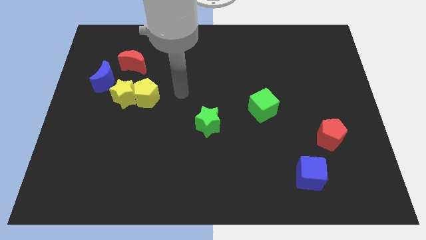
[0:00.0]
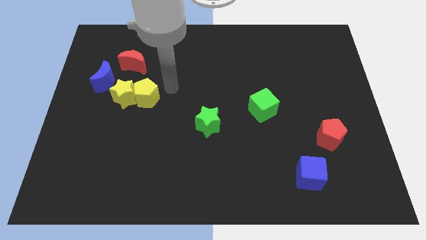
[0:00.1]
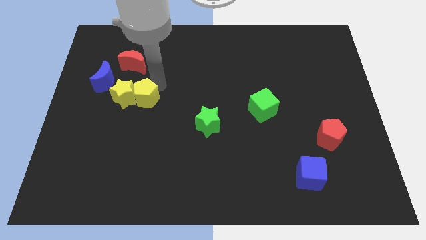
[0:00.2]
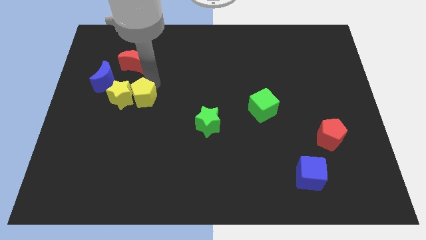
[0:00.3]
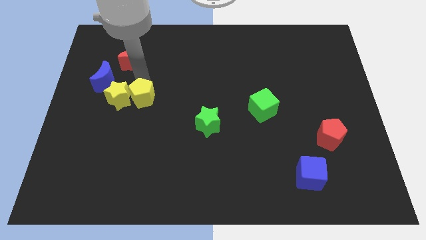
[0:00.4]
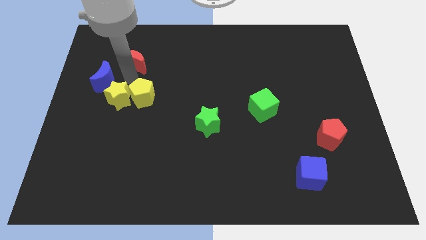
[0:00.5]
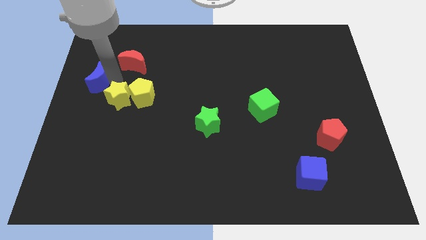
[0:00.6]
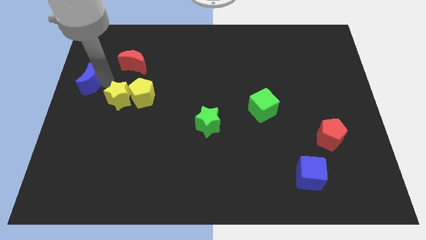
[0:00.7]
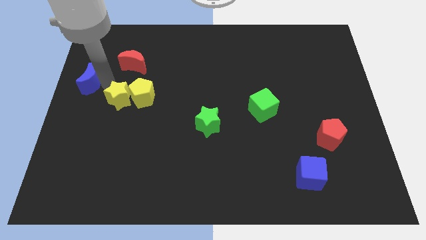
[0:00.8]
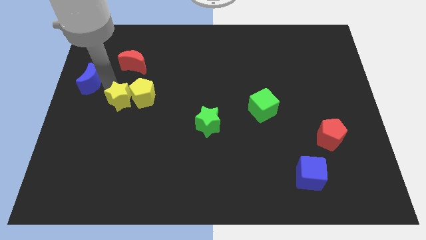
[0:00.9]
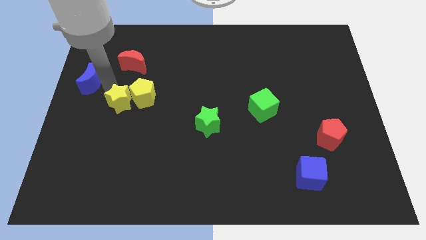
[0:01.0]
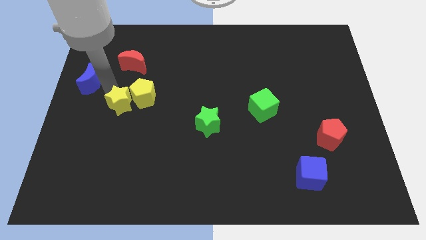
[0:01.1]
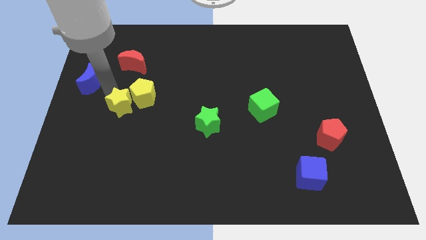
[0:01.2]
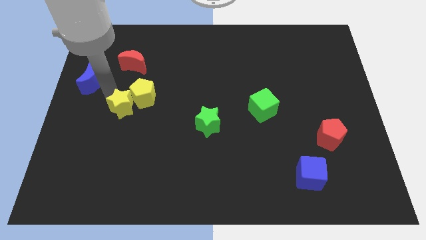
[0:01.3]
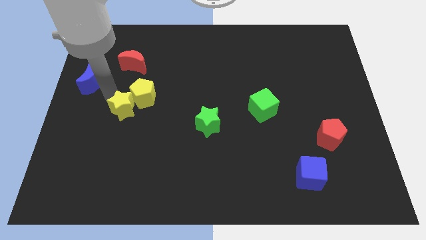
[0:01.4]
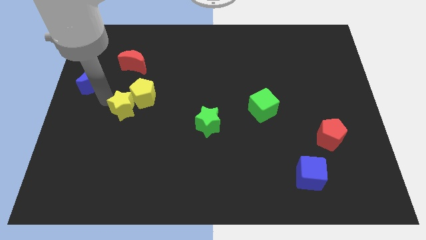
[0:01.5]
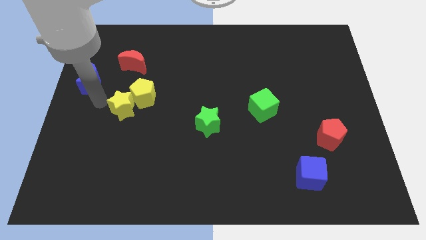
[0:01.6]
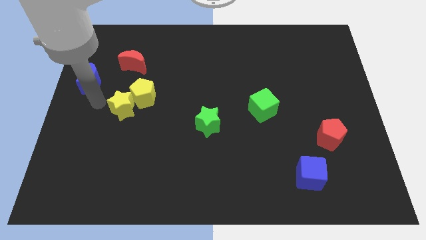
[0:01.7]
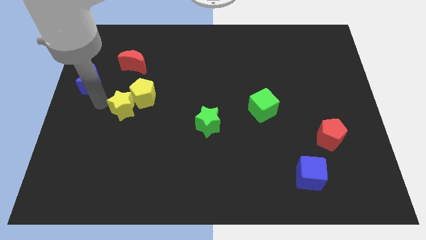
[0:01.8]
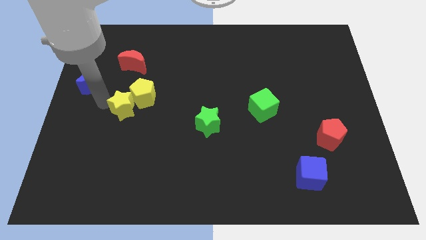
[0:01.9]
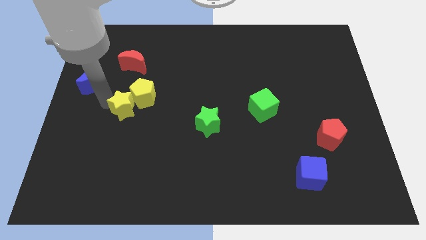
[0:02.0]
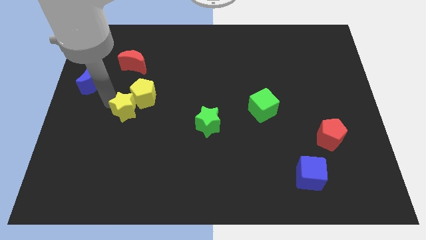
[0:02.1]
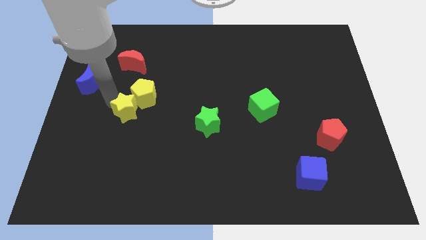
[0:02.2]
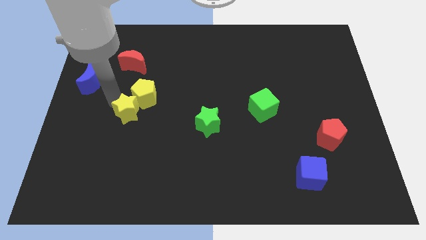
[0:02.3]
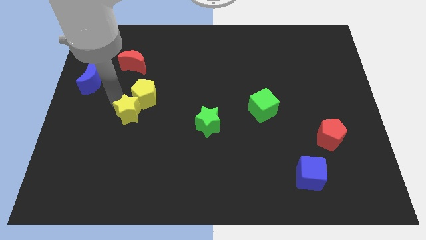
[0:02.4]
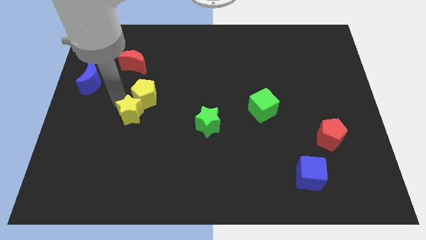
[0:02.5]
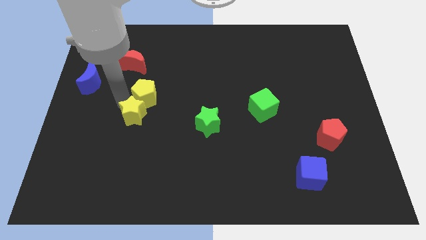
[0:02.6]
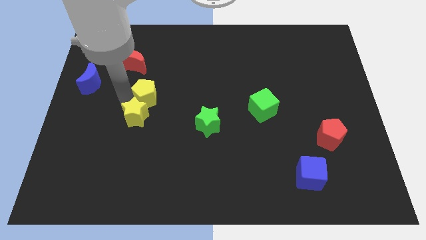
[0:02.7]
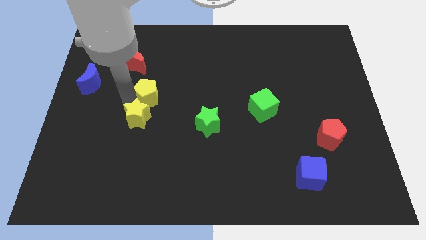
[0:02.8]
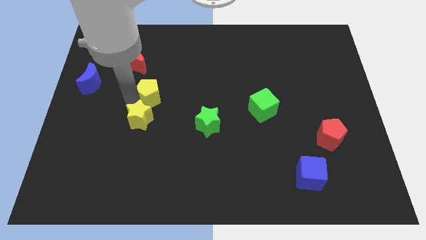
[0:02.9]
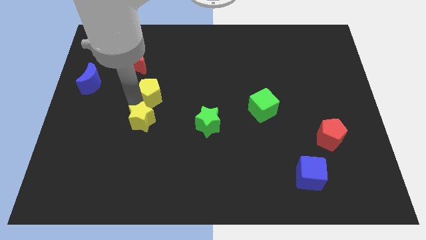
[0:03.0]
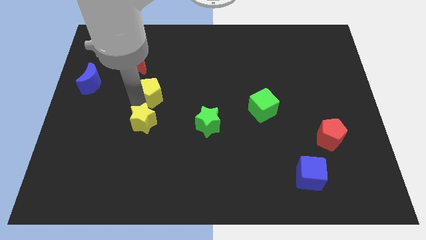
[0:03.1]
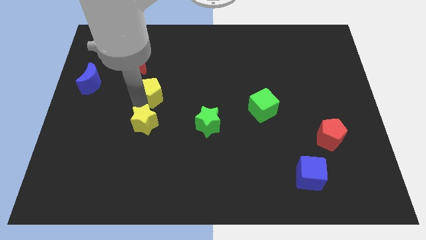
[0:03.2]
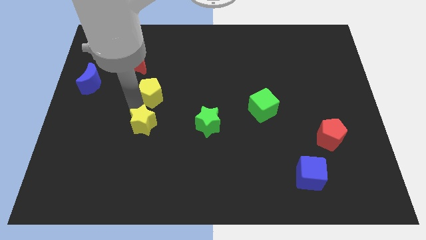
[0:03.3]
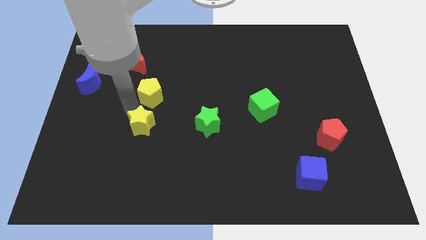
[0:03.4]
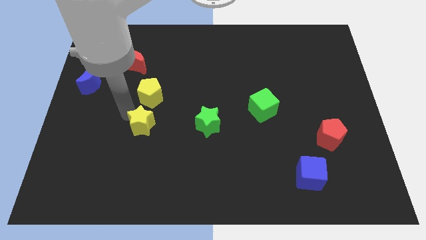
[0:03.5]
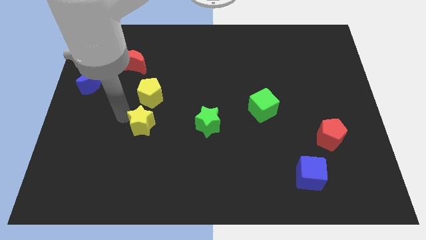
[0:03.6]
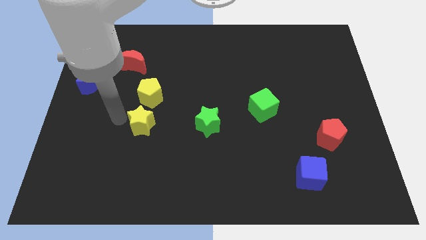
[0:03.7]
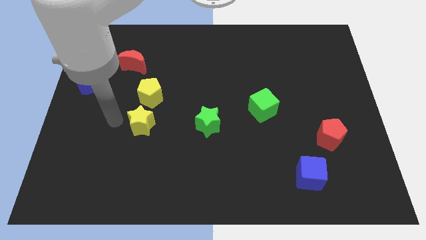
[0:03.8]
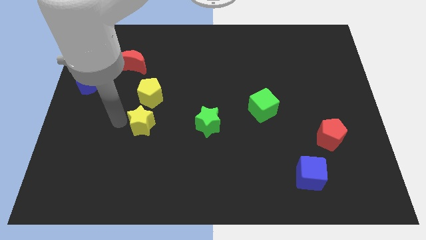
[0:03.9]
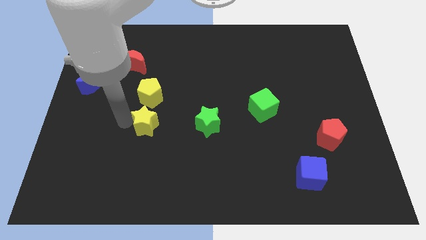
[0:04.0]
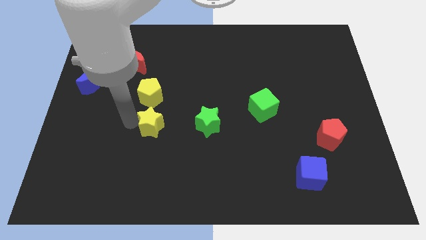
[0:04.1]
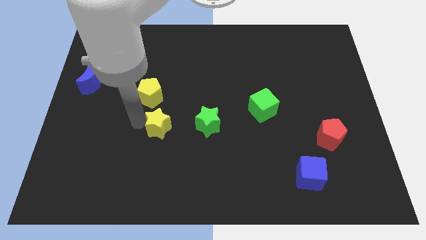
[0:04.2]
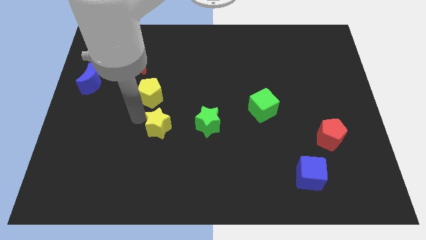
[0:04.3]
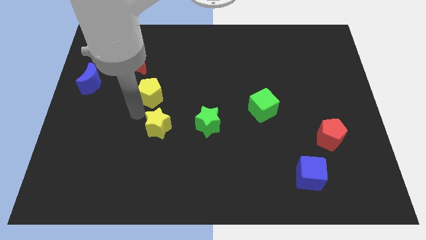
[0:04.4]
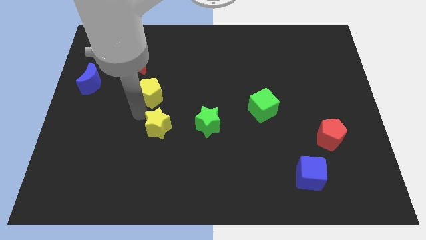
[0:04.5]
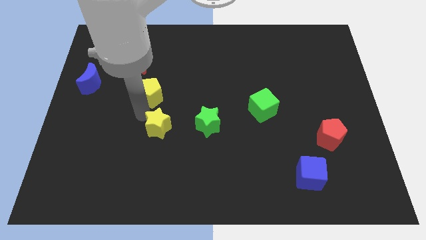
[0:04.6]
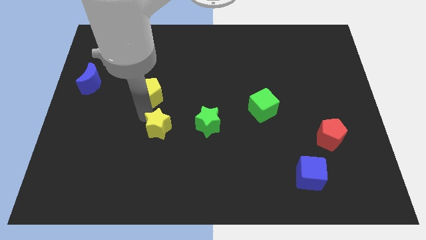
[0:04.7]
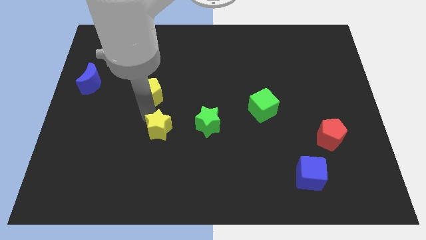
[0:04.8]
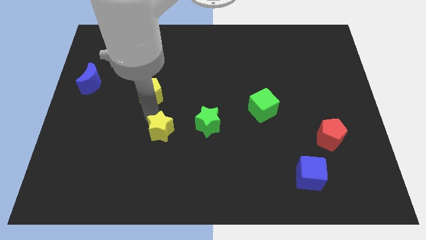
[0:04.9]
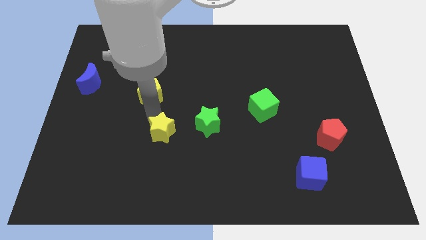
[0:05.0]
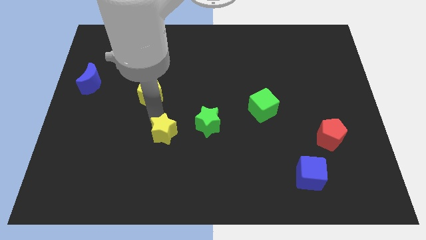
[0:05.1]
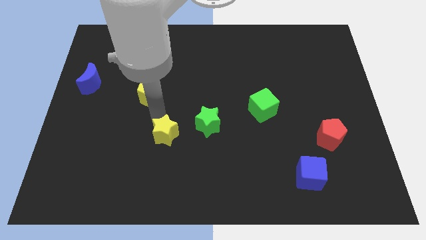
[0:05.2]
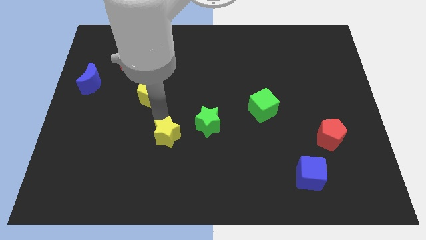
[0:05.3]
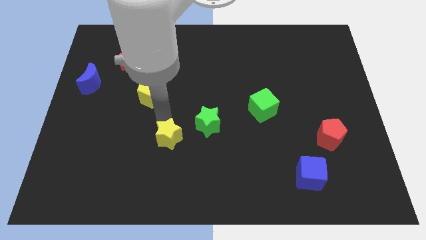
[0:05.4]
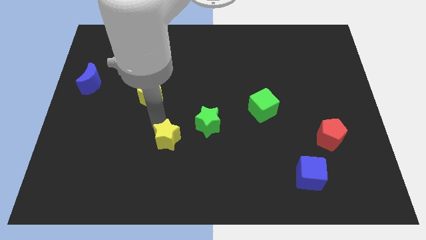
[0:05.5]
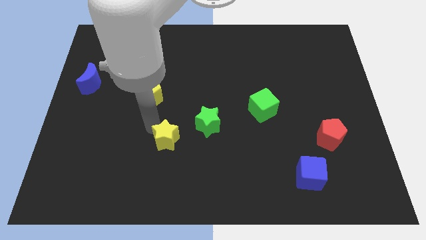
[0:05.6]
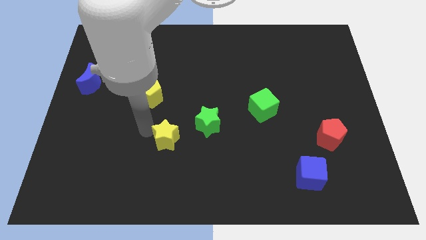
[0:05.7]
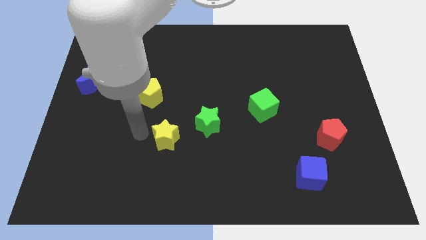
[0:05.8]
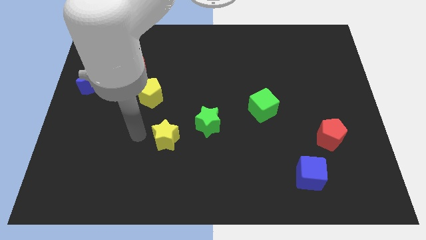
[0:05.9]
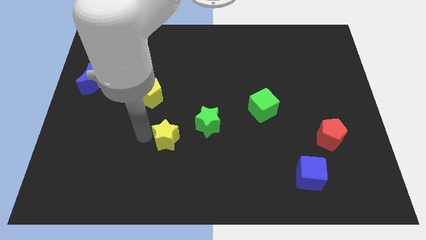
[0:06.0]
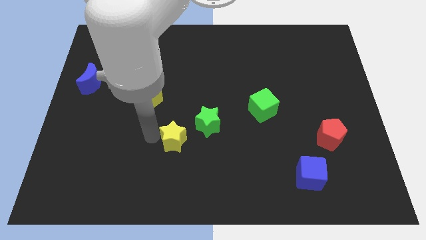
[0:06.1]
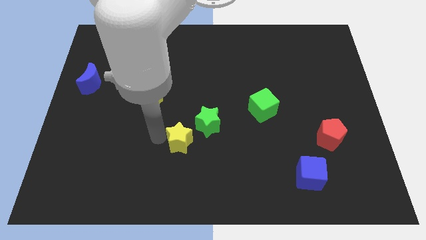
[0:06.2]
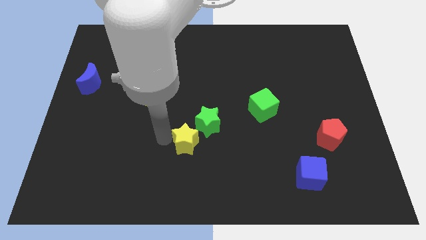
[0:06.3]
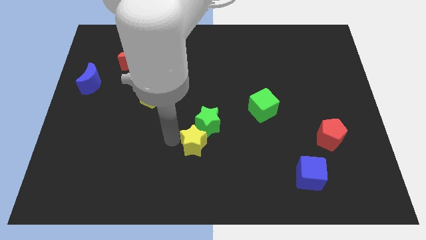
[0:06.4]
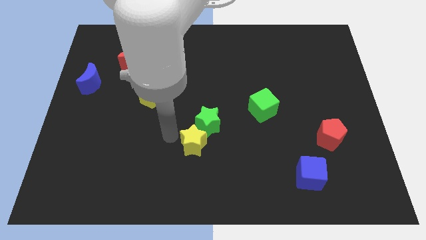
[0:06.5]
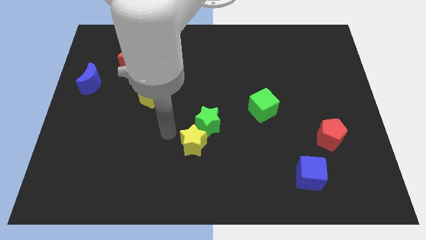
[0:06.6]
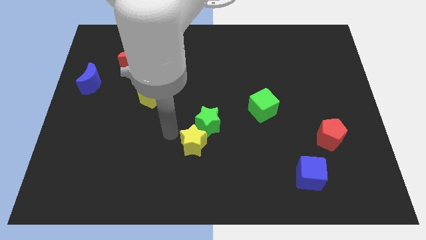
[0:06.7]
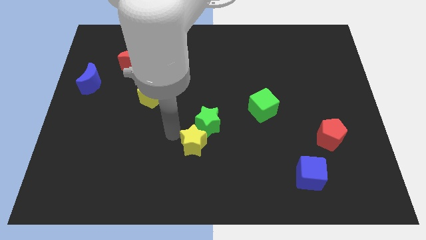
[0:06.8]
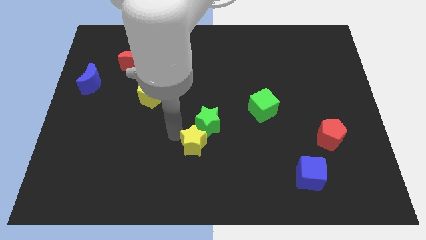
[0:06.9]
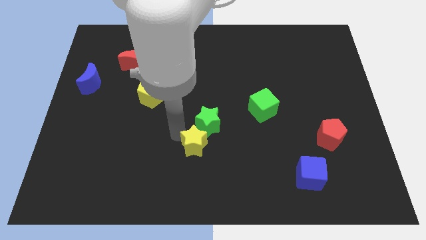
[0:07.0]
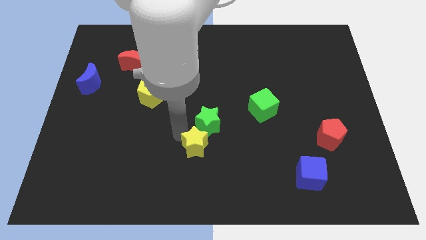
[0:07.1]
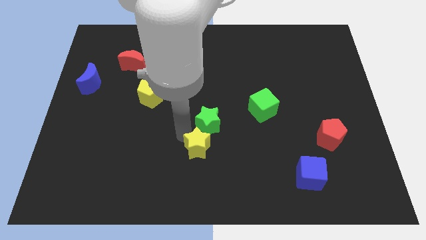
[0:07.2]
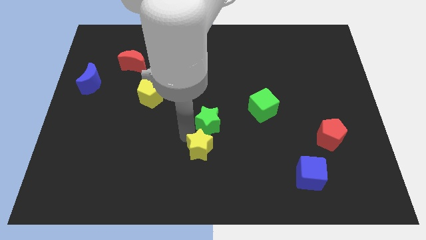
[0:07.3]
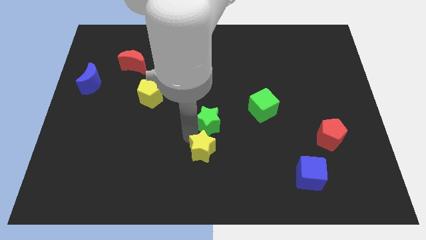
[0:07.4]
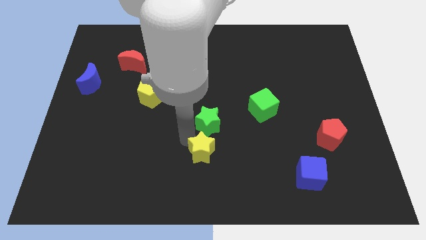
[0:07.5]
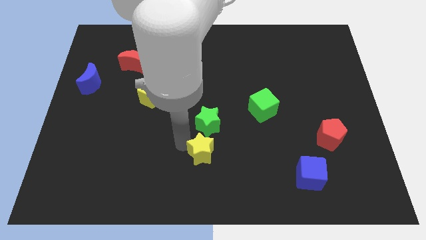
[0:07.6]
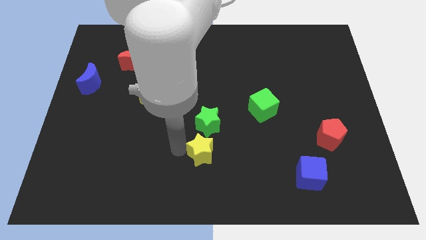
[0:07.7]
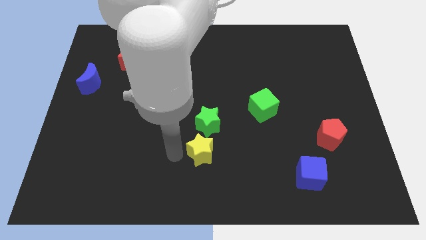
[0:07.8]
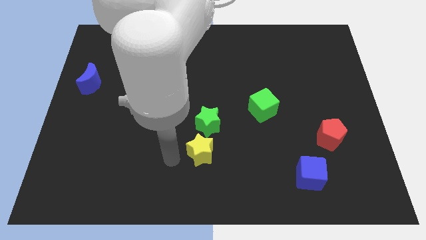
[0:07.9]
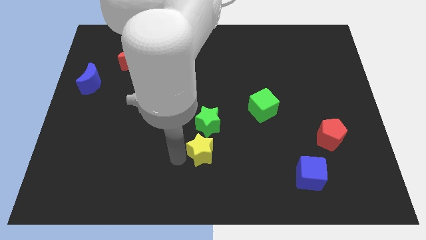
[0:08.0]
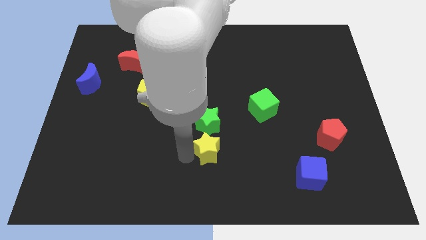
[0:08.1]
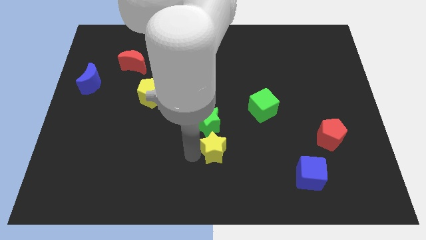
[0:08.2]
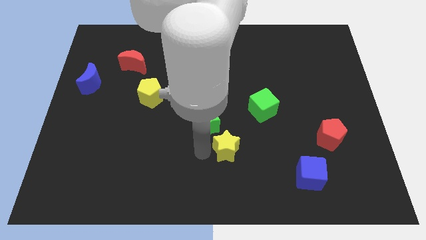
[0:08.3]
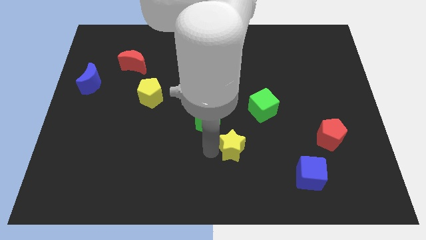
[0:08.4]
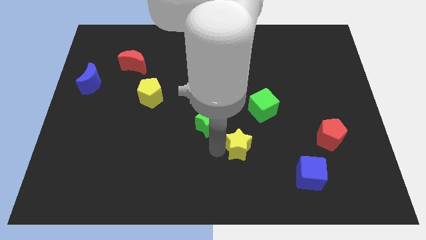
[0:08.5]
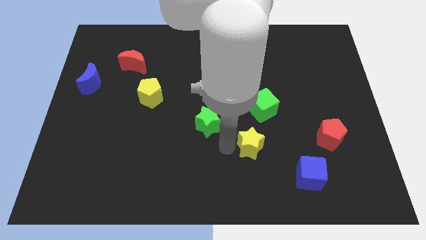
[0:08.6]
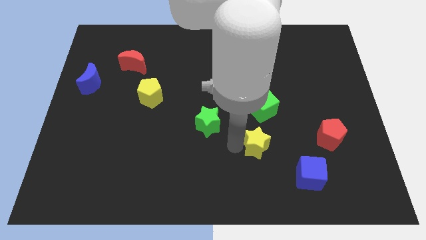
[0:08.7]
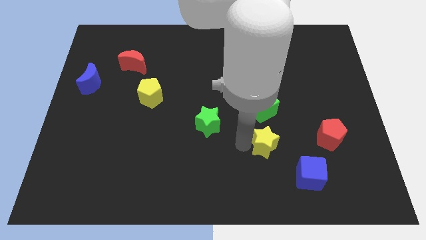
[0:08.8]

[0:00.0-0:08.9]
put the yellow star diagonally up and to the left of the blue cube
